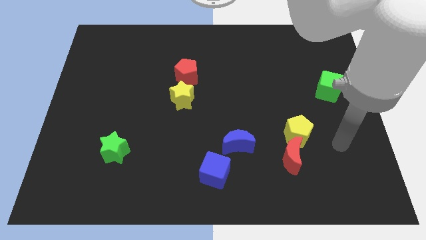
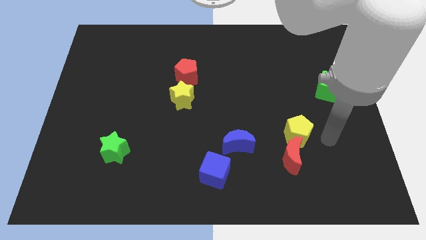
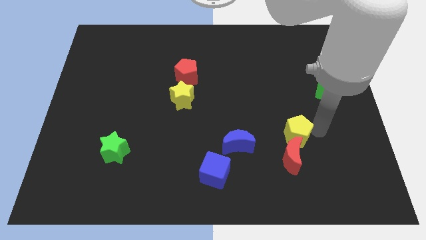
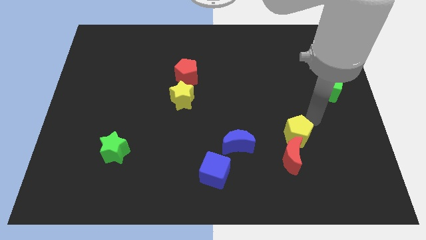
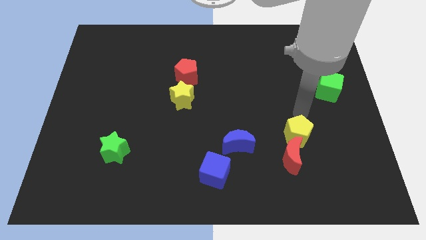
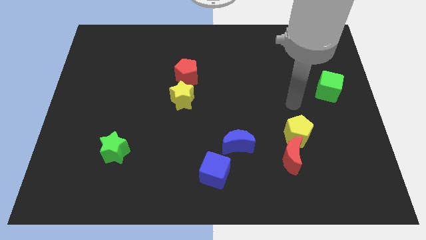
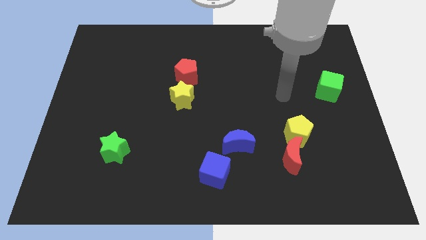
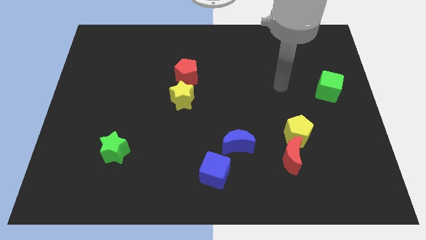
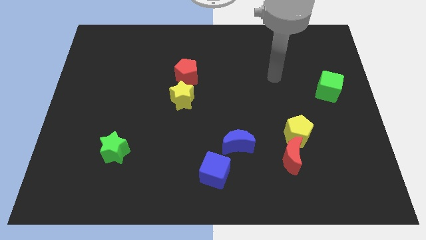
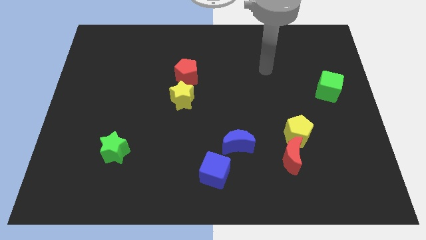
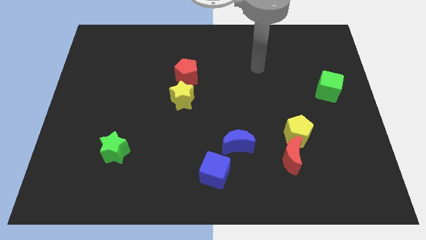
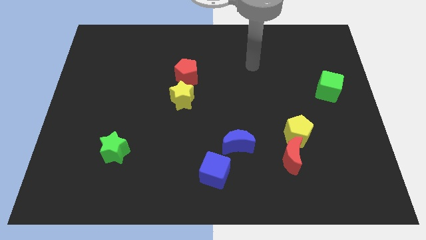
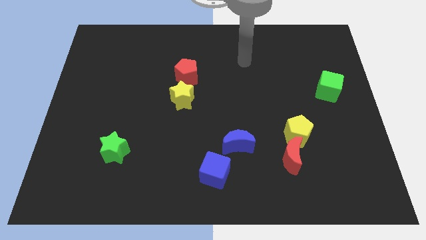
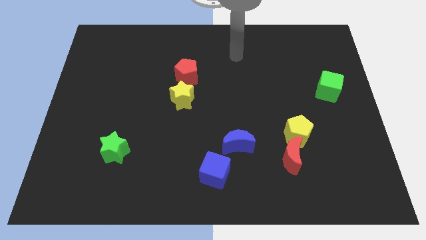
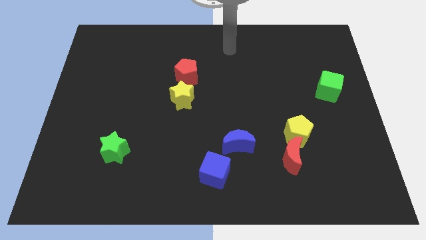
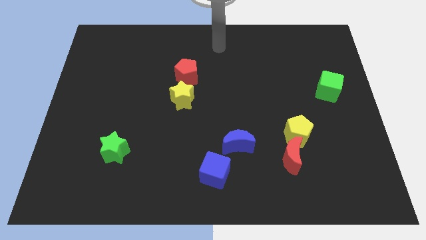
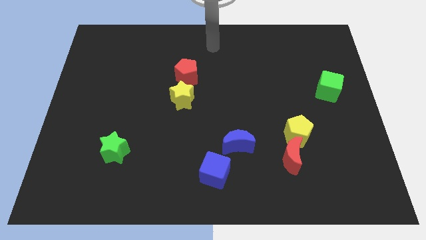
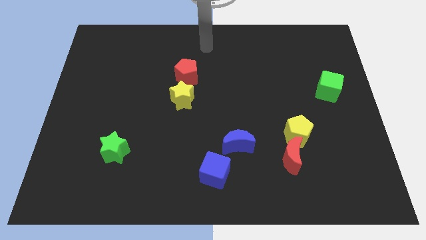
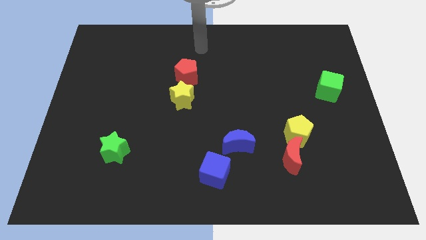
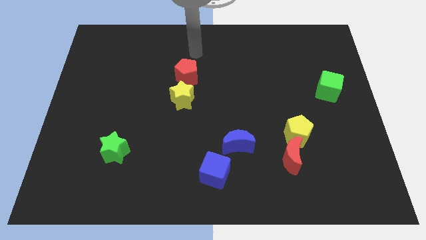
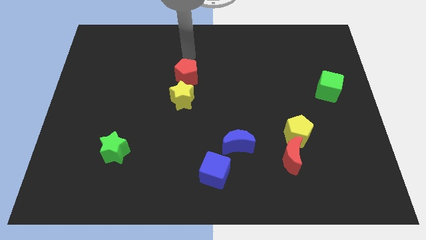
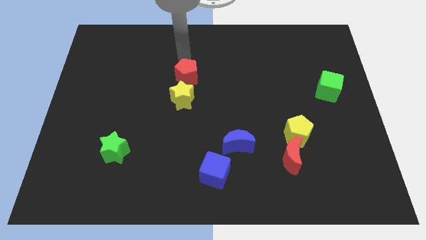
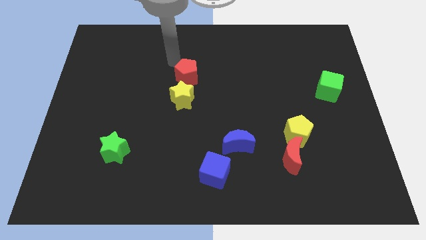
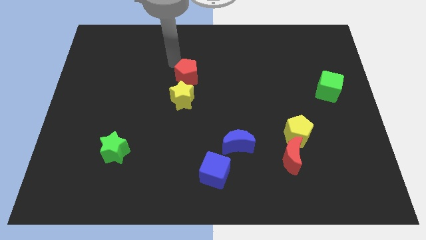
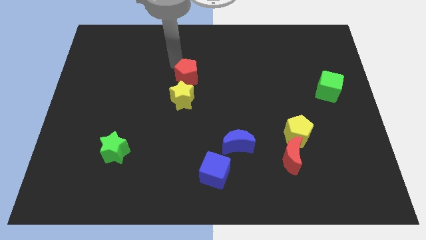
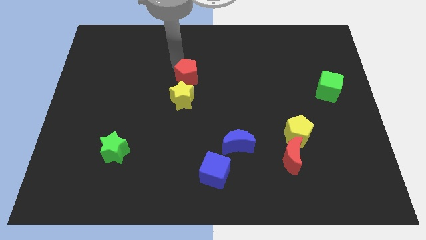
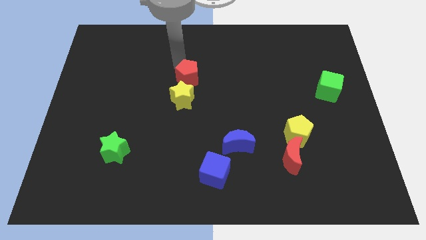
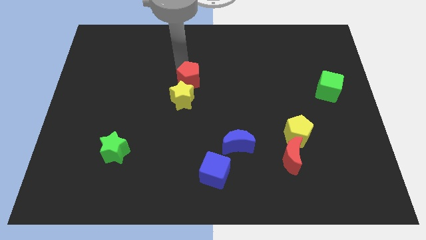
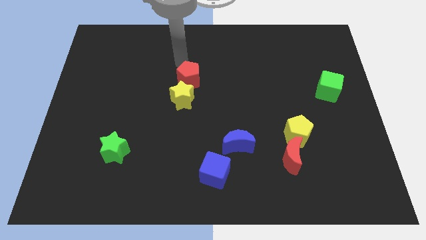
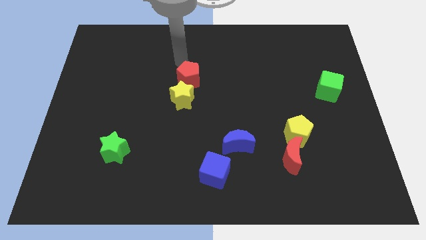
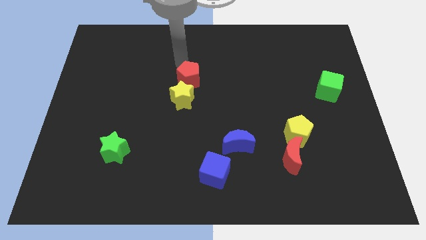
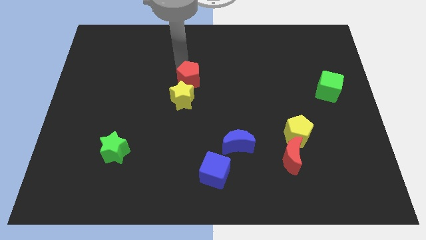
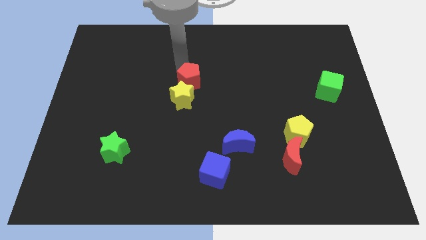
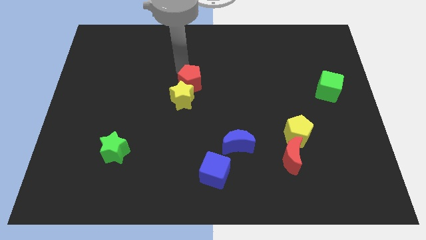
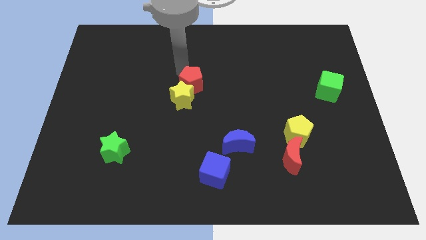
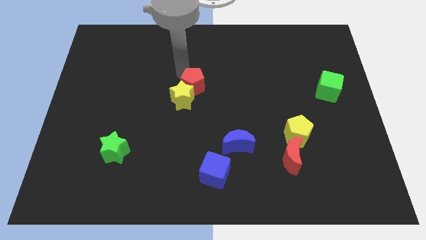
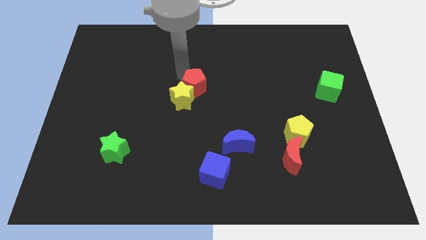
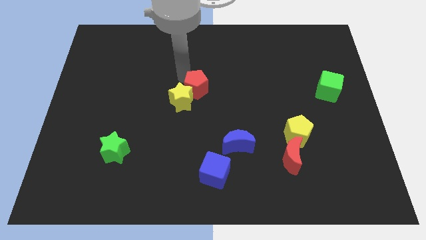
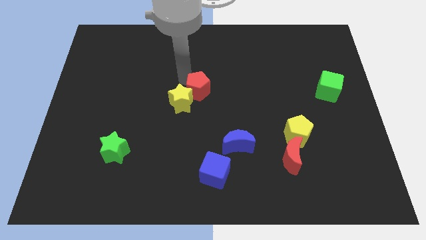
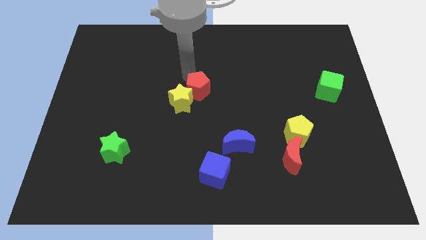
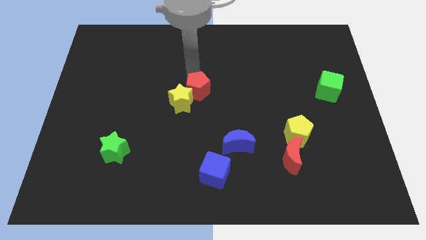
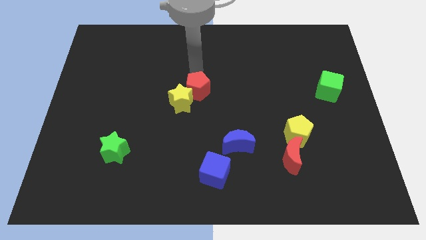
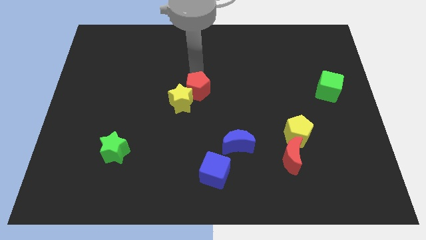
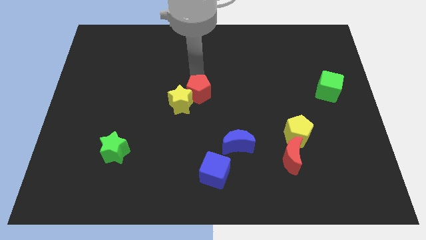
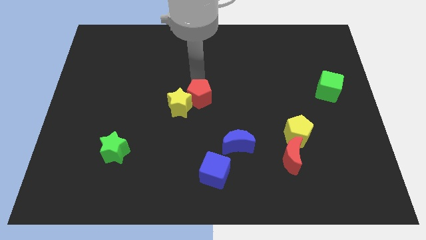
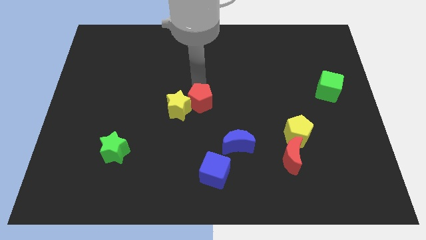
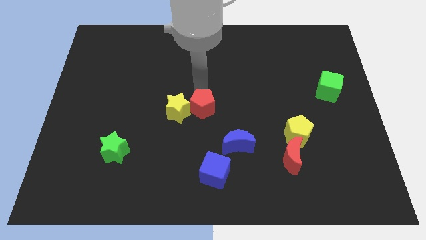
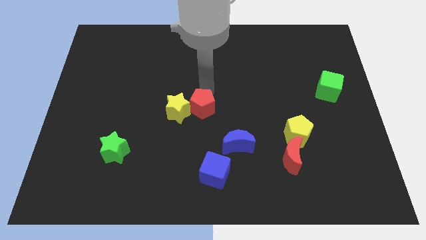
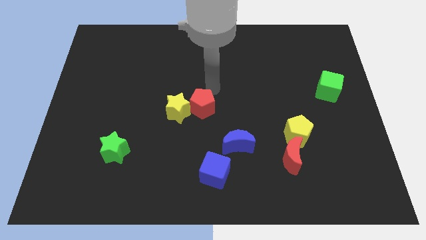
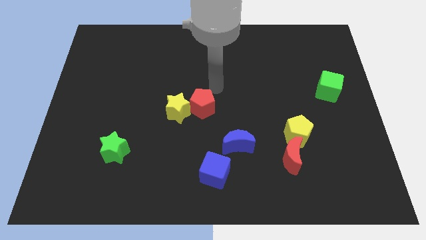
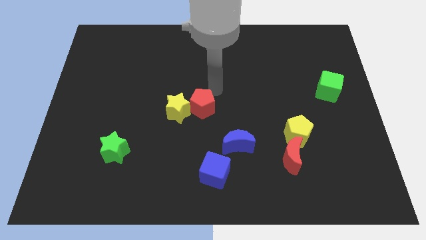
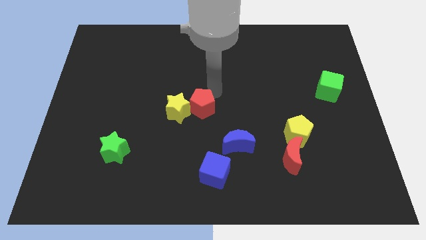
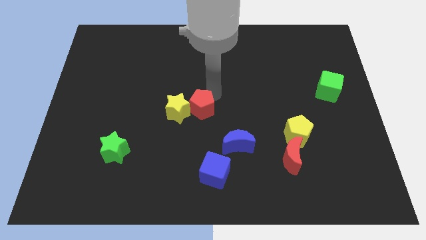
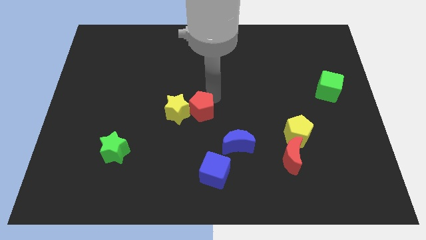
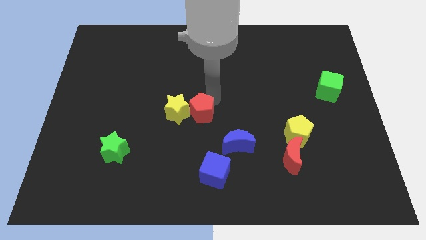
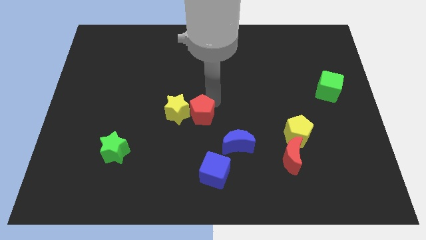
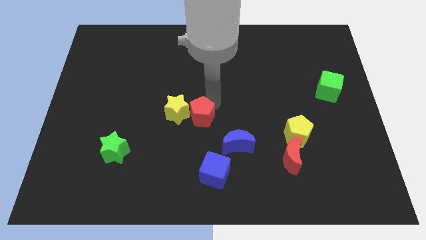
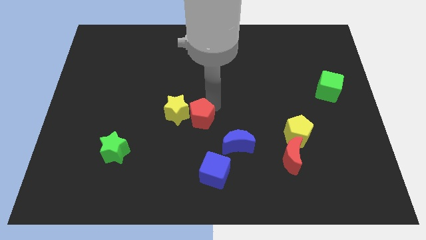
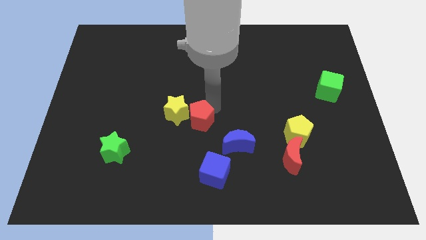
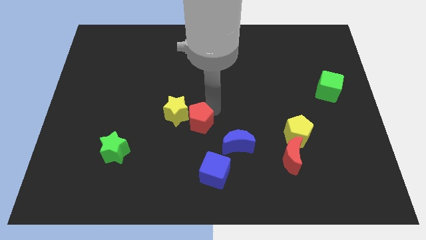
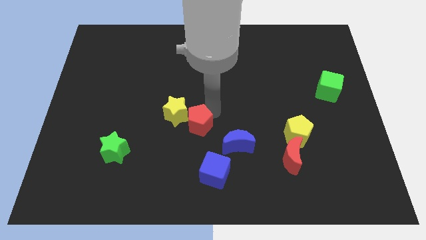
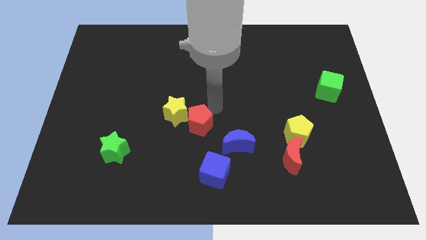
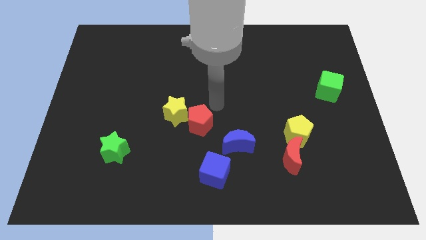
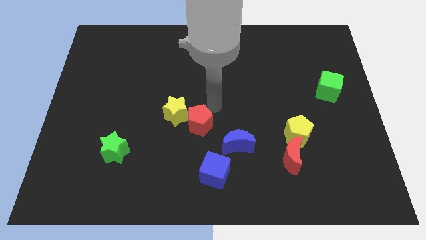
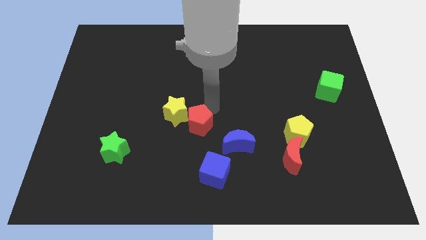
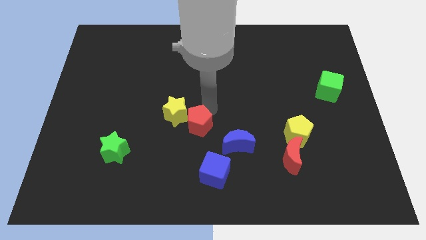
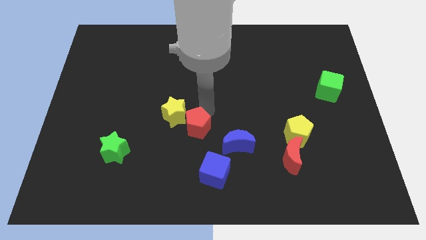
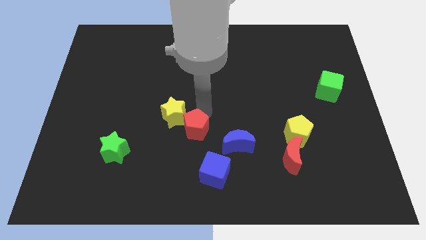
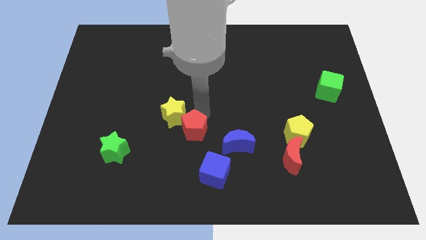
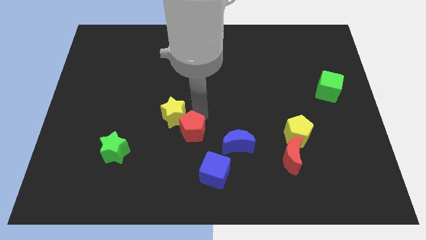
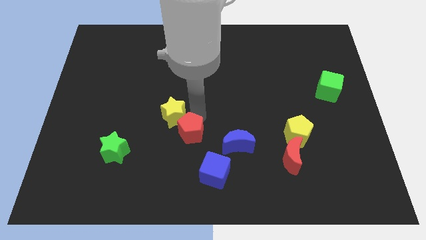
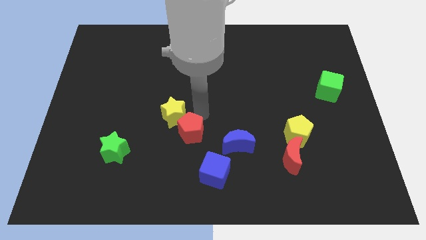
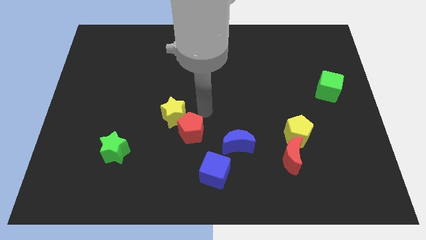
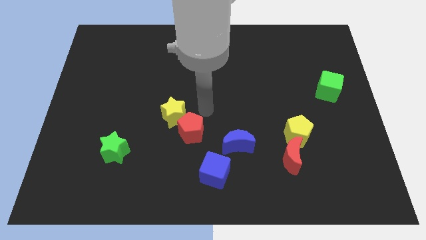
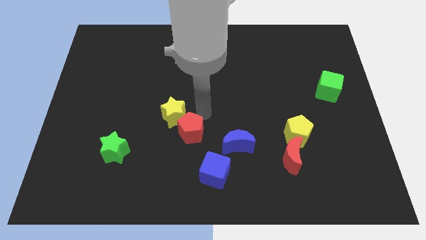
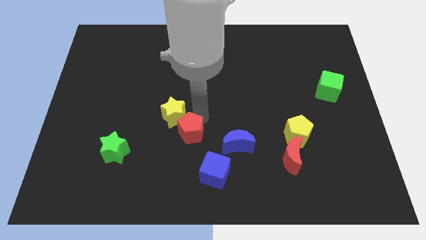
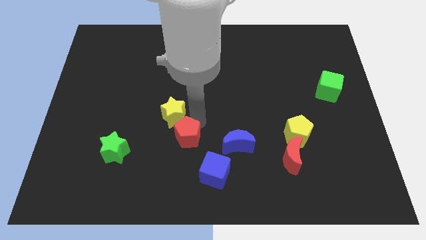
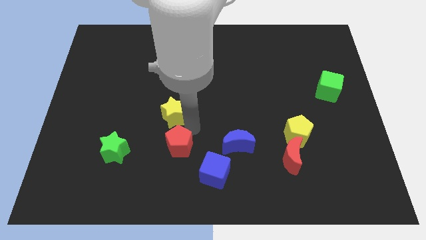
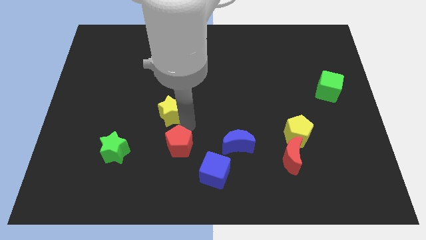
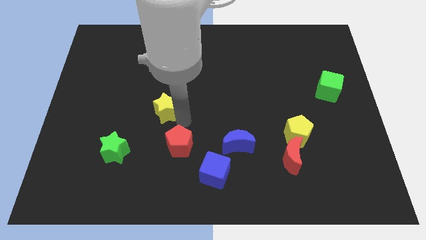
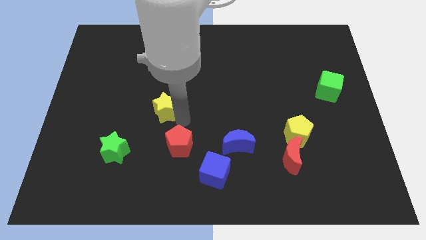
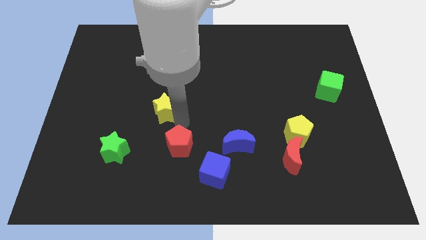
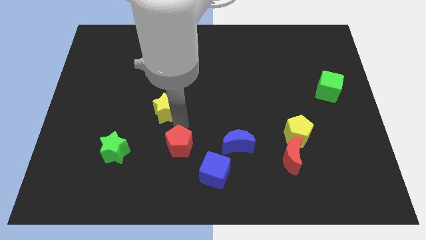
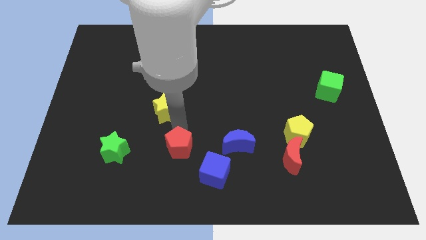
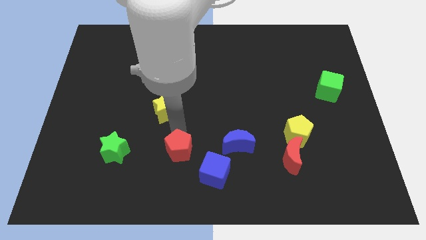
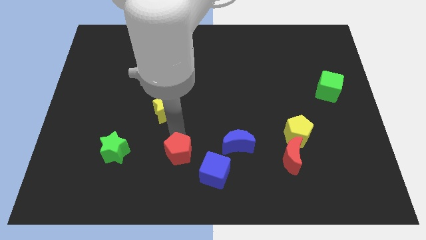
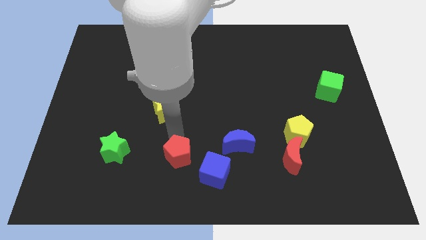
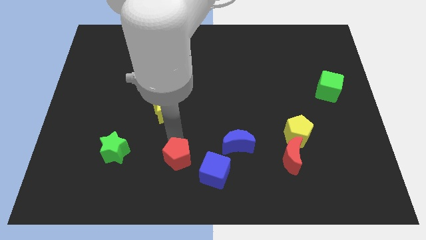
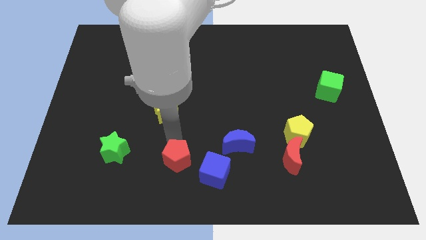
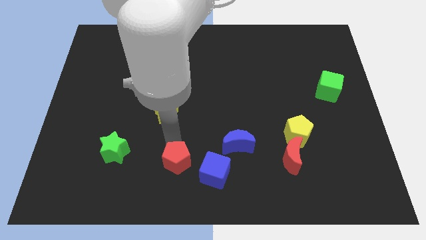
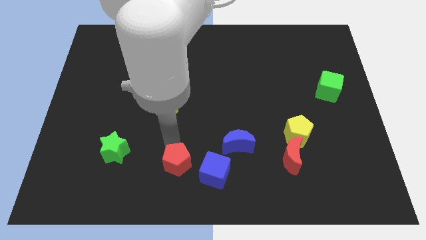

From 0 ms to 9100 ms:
slide the red pentagon to the bottom
